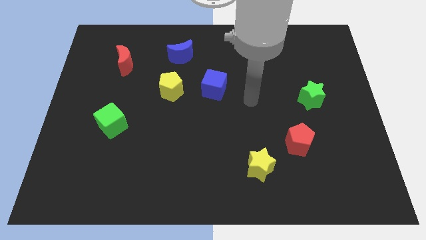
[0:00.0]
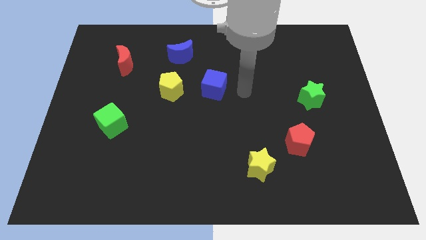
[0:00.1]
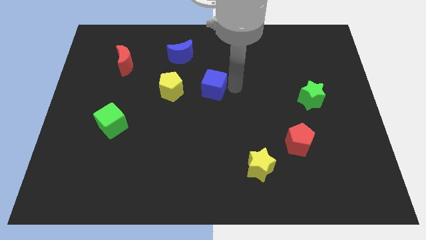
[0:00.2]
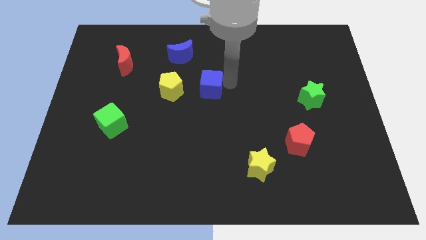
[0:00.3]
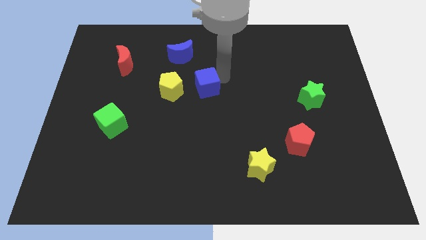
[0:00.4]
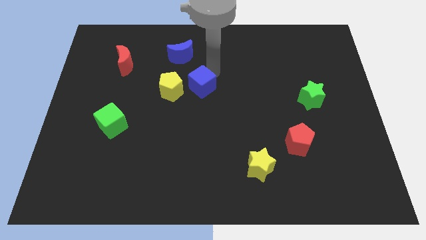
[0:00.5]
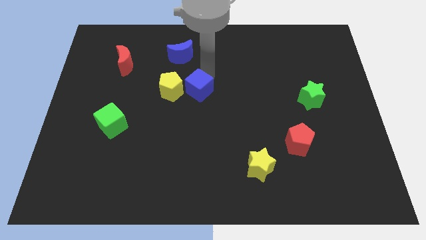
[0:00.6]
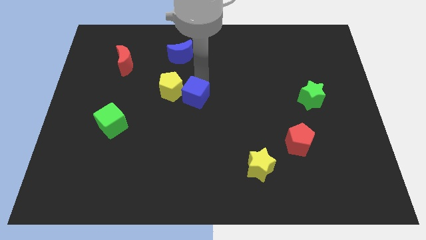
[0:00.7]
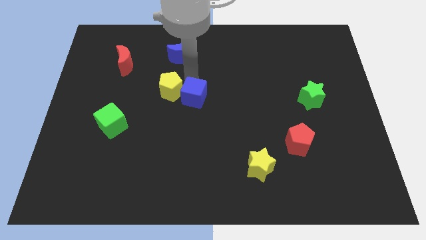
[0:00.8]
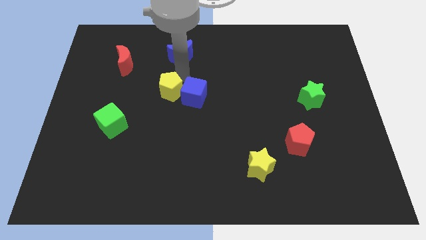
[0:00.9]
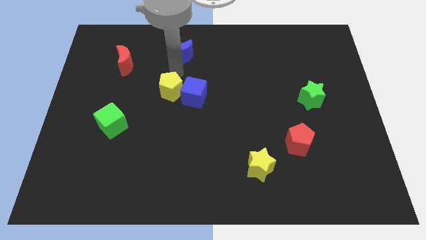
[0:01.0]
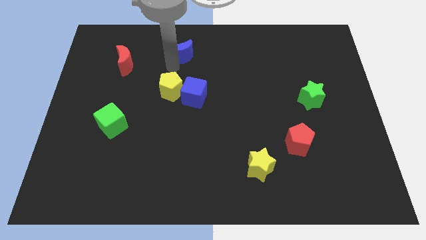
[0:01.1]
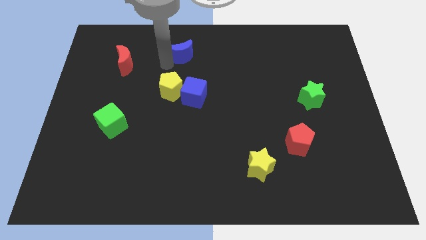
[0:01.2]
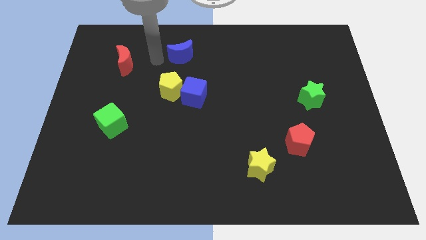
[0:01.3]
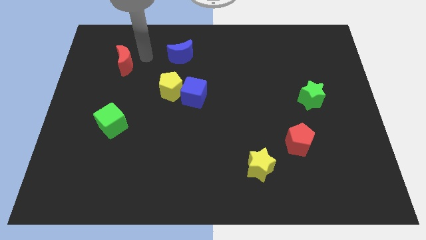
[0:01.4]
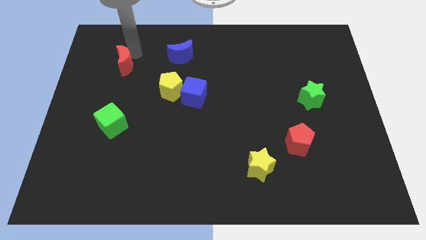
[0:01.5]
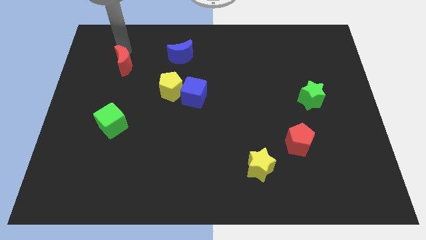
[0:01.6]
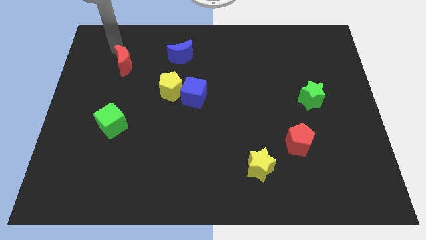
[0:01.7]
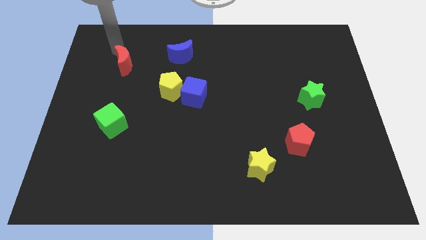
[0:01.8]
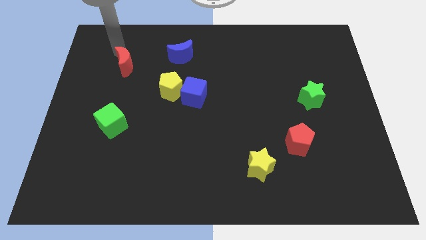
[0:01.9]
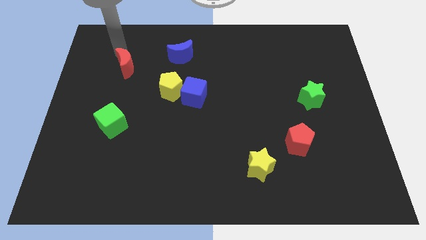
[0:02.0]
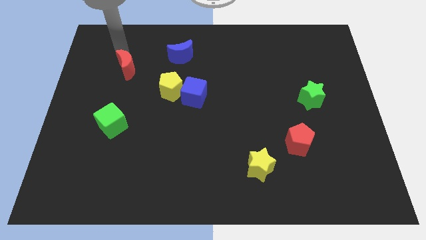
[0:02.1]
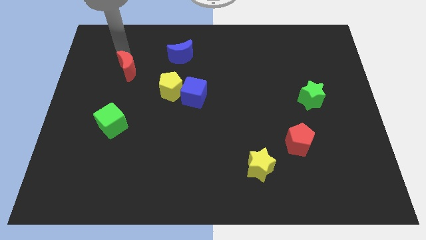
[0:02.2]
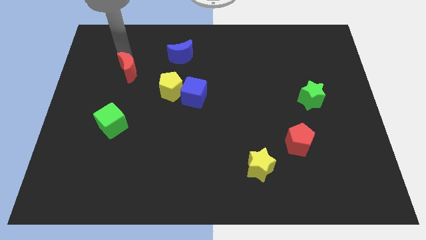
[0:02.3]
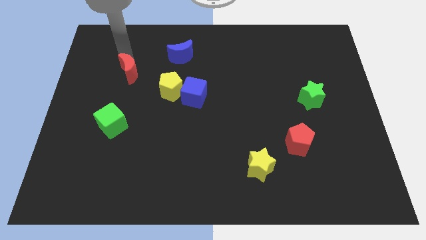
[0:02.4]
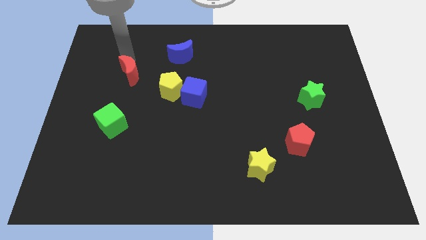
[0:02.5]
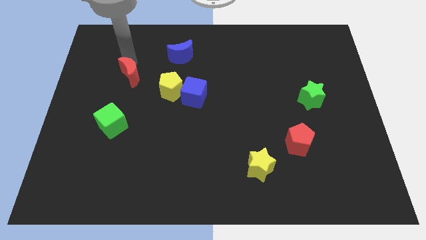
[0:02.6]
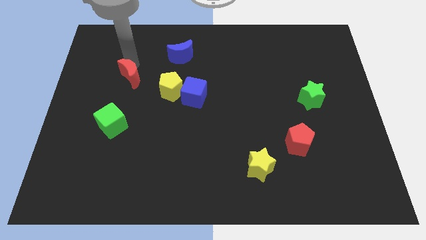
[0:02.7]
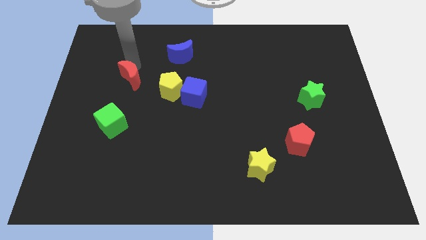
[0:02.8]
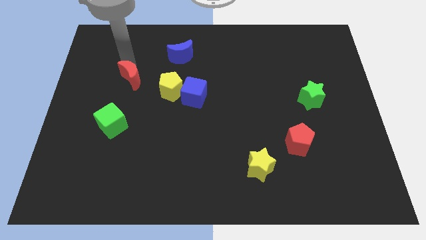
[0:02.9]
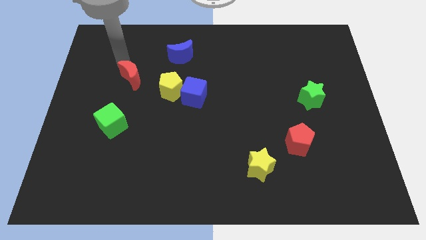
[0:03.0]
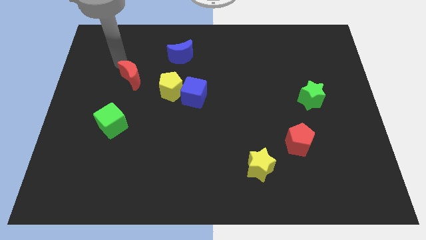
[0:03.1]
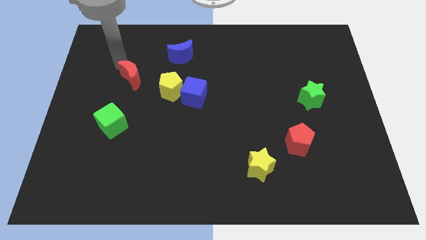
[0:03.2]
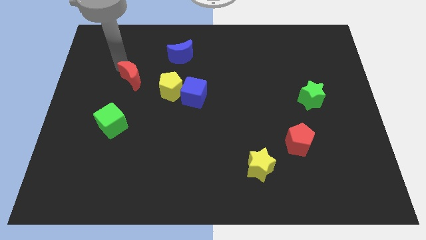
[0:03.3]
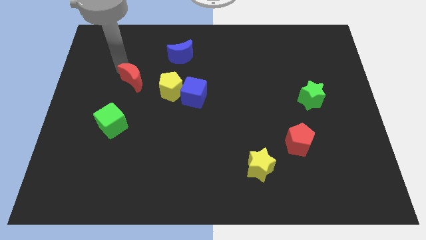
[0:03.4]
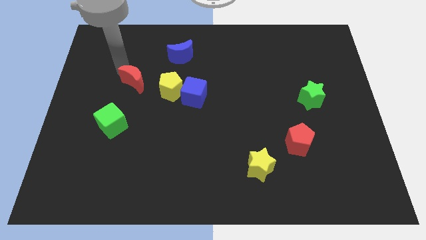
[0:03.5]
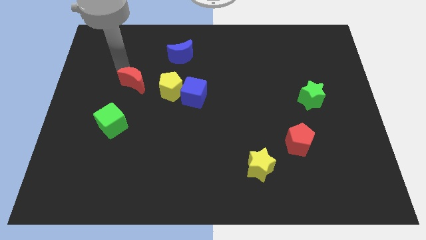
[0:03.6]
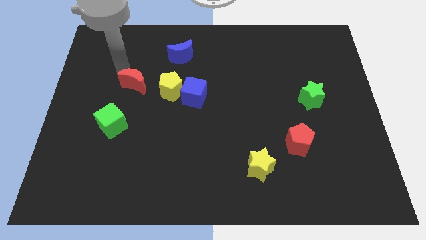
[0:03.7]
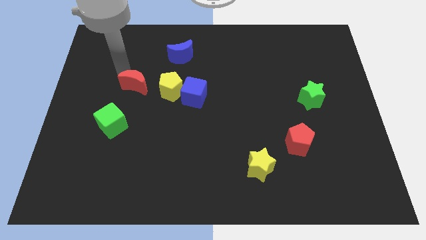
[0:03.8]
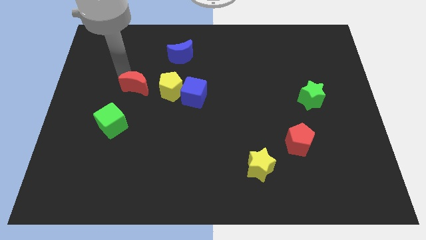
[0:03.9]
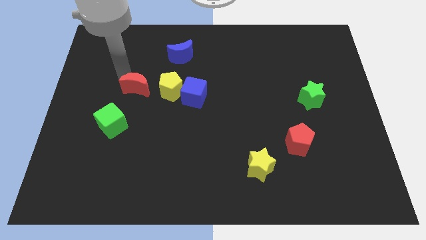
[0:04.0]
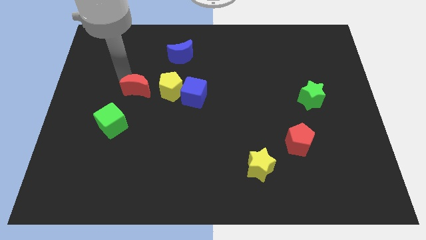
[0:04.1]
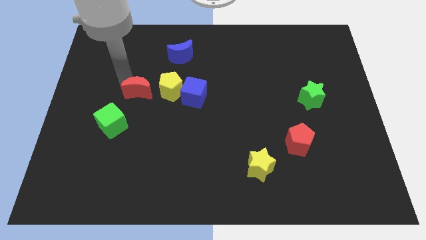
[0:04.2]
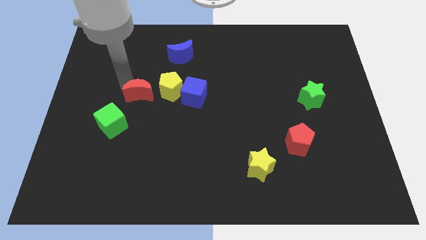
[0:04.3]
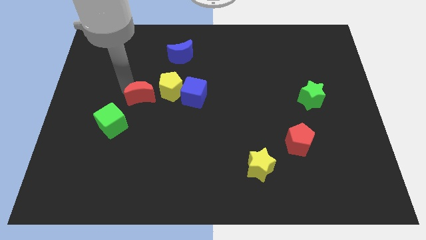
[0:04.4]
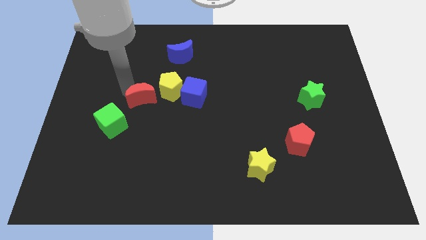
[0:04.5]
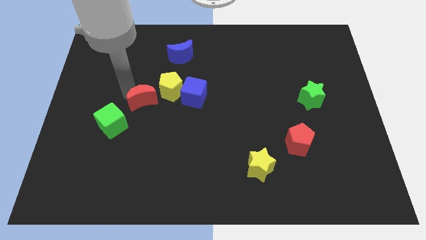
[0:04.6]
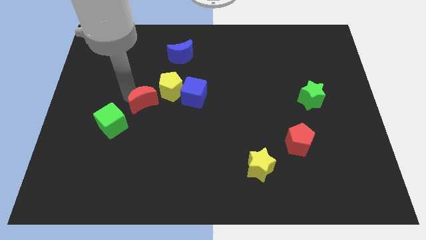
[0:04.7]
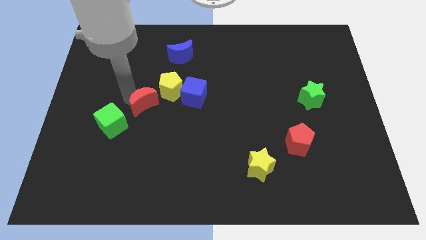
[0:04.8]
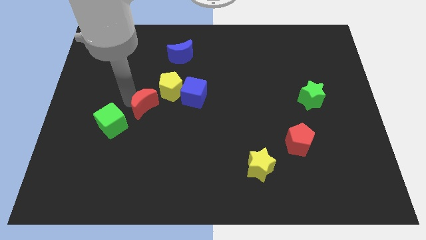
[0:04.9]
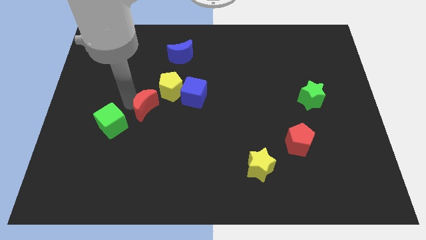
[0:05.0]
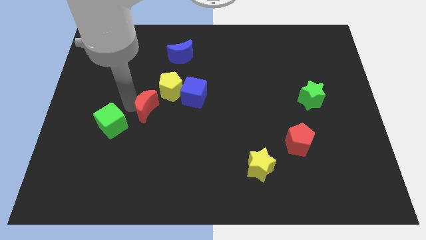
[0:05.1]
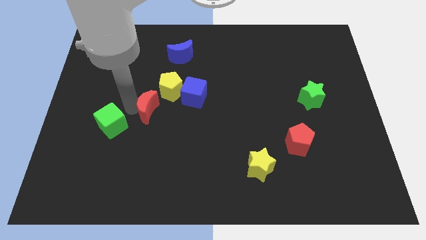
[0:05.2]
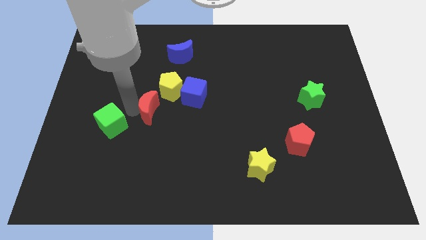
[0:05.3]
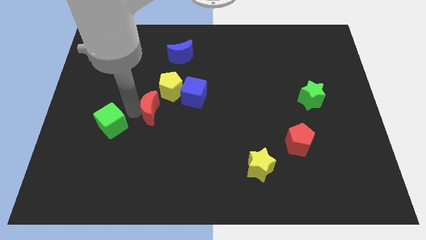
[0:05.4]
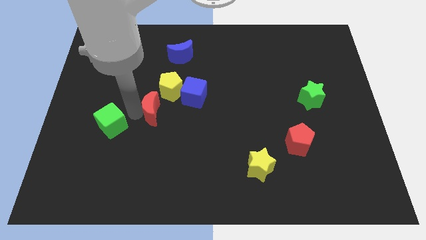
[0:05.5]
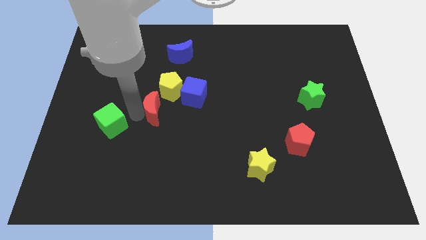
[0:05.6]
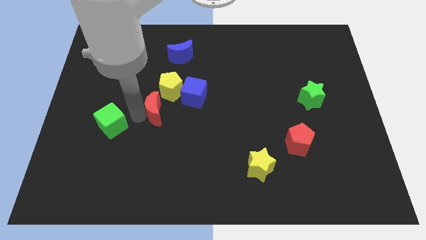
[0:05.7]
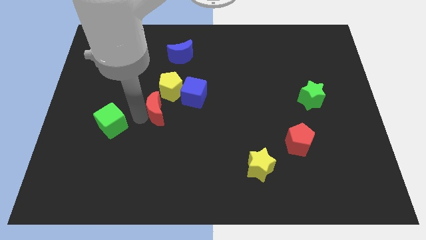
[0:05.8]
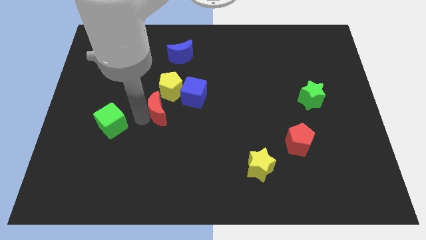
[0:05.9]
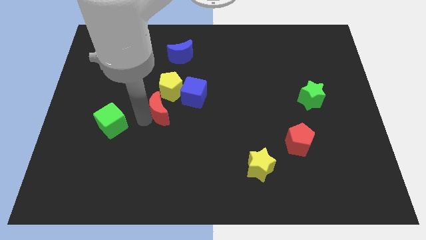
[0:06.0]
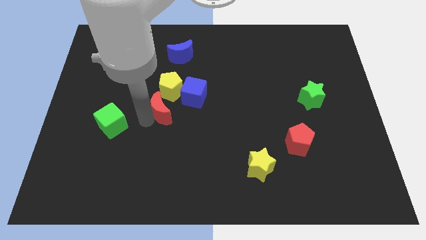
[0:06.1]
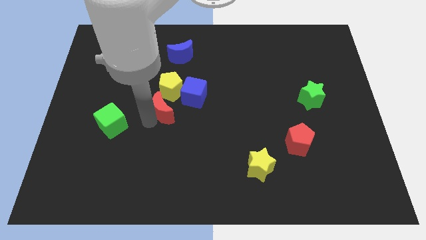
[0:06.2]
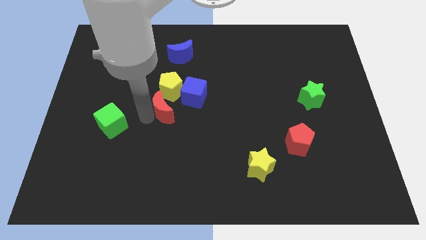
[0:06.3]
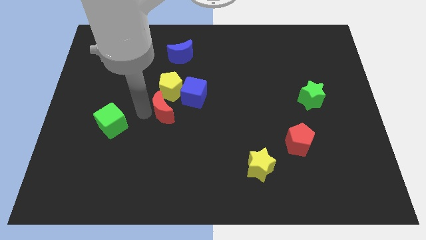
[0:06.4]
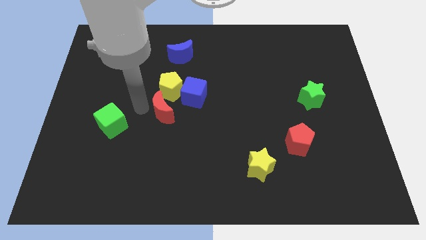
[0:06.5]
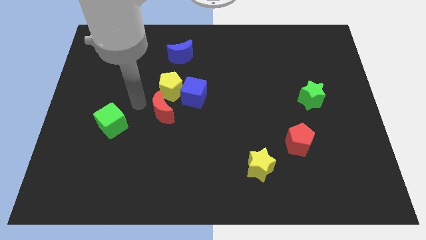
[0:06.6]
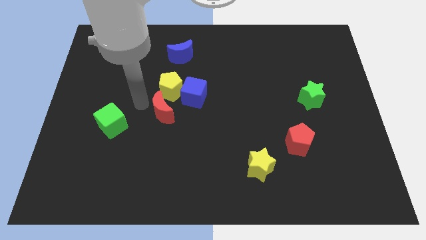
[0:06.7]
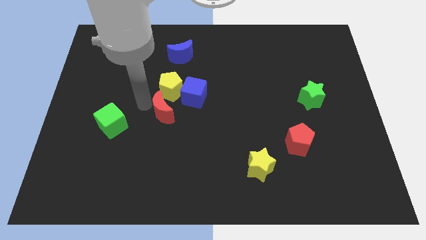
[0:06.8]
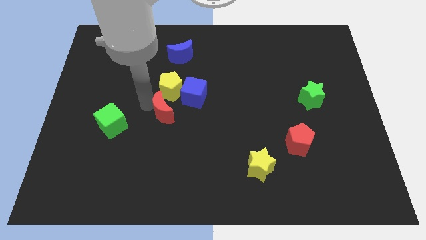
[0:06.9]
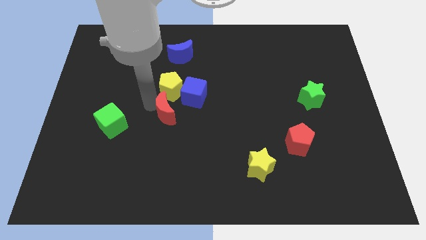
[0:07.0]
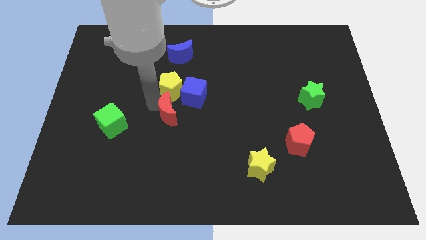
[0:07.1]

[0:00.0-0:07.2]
move the red moon down and right diagonally

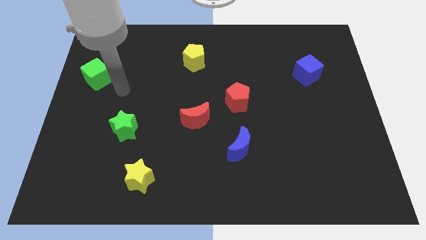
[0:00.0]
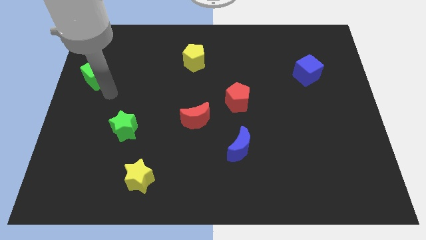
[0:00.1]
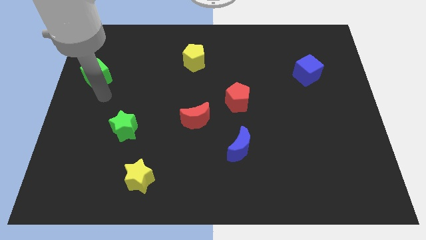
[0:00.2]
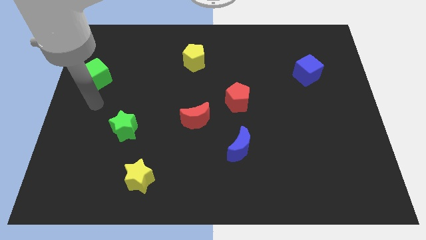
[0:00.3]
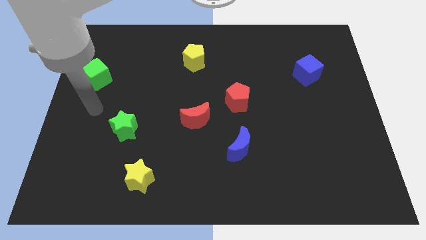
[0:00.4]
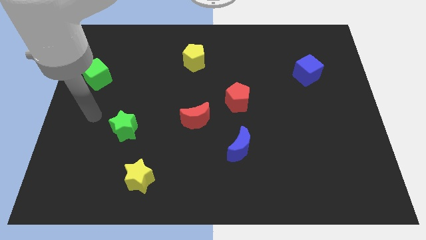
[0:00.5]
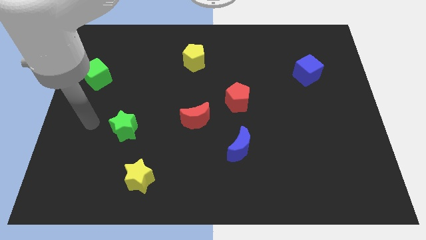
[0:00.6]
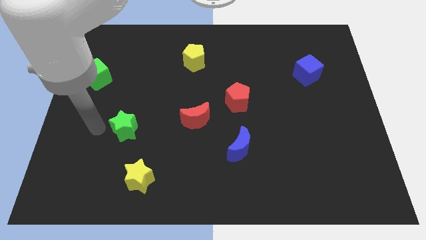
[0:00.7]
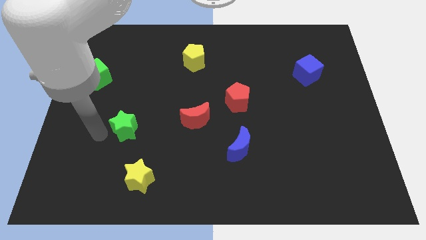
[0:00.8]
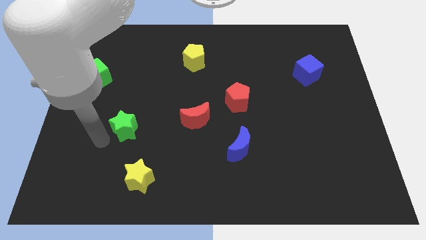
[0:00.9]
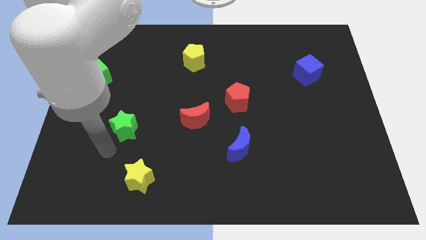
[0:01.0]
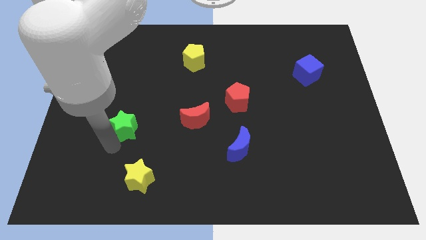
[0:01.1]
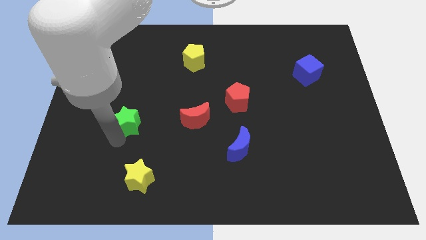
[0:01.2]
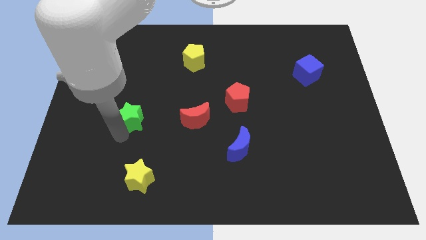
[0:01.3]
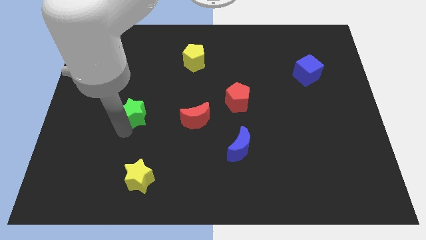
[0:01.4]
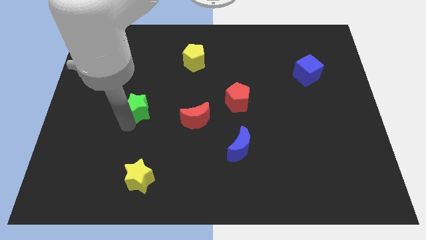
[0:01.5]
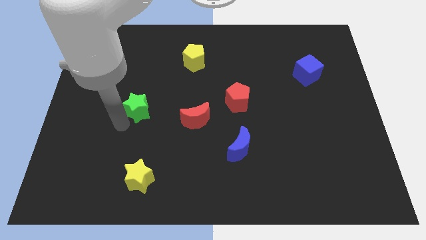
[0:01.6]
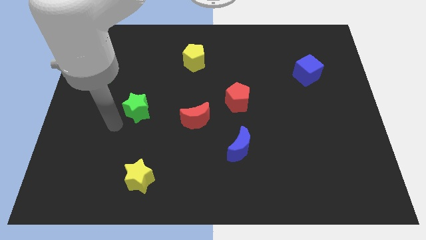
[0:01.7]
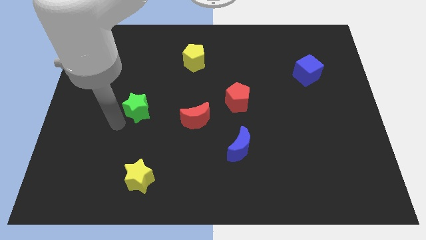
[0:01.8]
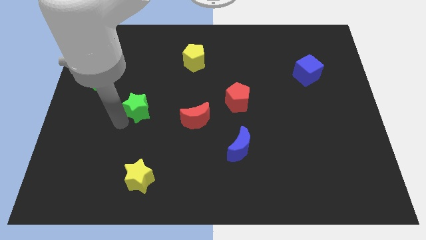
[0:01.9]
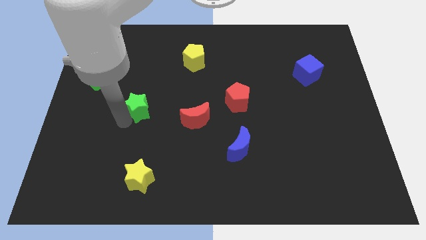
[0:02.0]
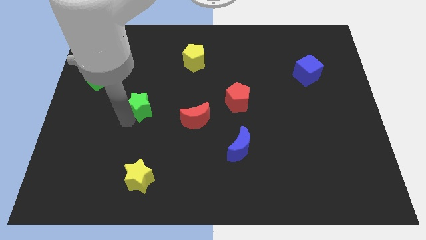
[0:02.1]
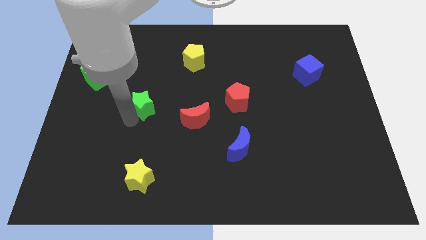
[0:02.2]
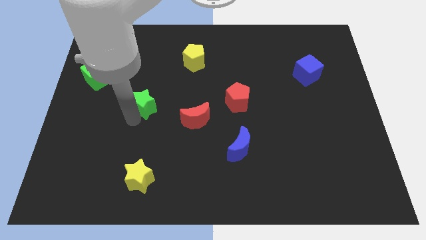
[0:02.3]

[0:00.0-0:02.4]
push the green star somewhat upwards and then right
